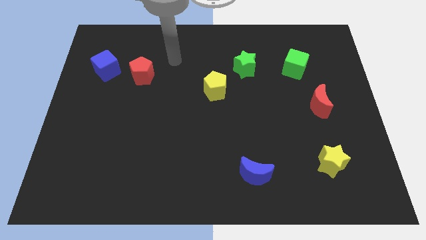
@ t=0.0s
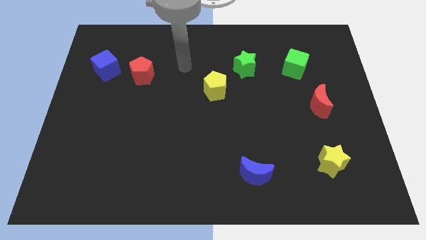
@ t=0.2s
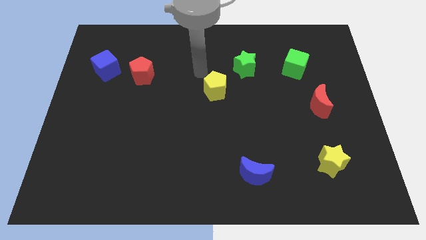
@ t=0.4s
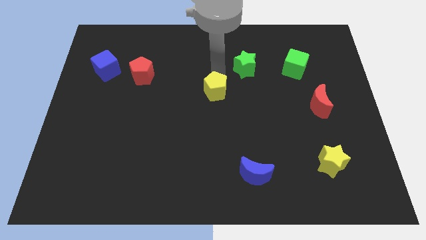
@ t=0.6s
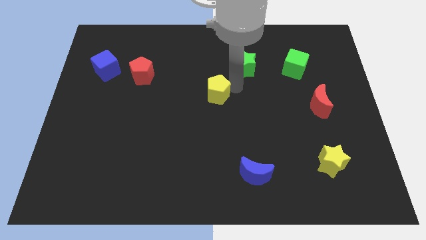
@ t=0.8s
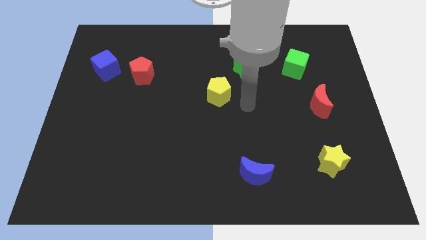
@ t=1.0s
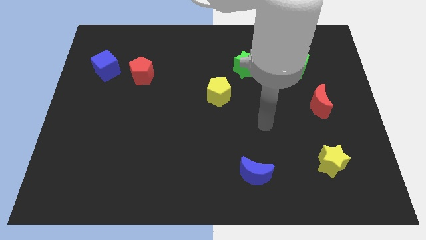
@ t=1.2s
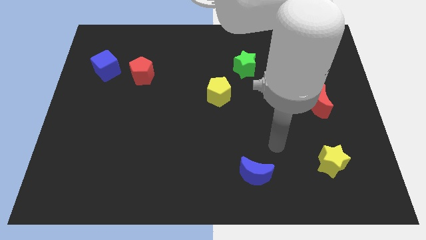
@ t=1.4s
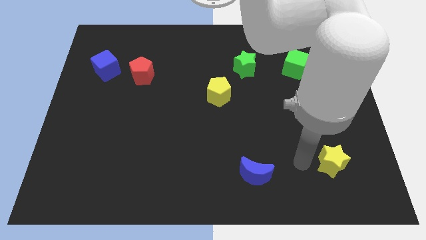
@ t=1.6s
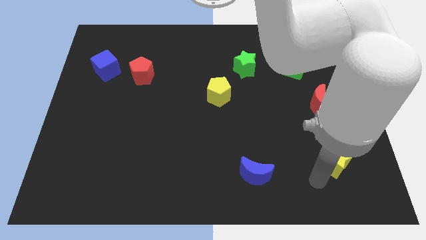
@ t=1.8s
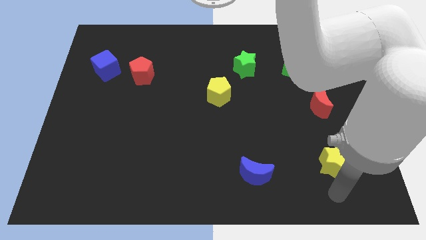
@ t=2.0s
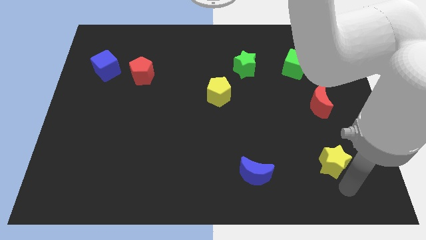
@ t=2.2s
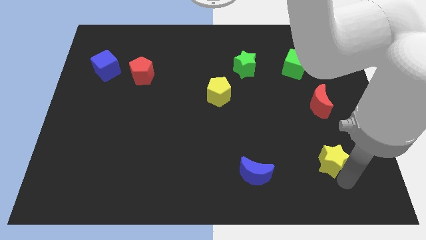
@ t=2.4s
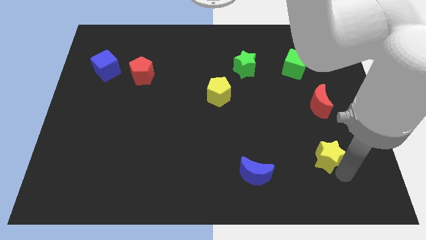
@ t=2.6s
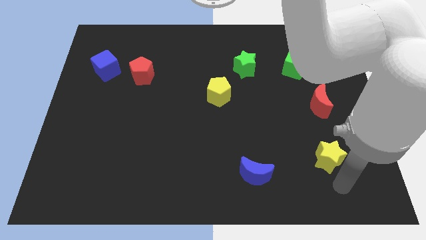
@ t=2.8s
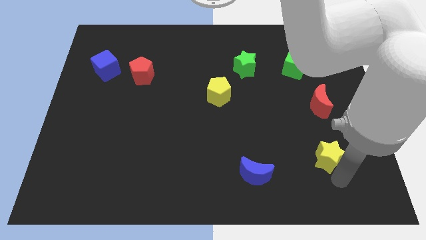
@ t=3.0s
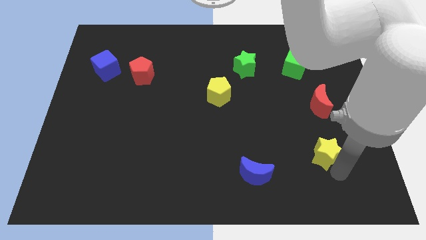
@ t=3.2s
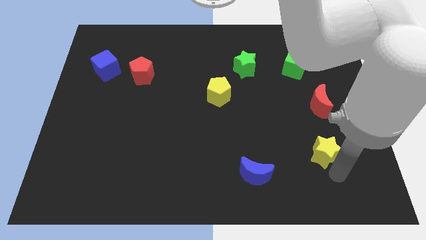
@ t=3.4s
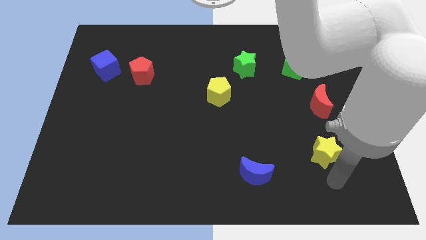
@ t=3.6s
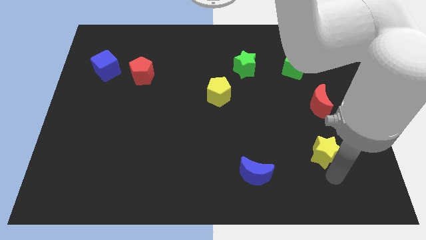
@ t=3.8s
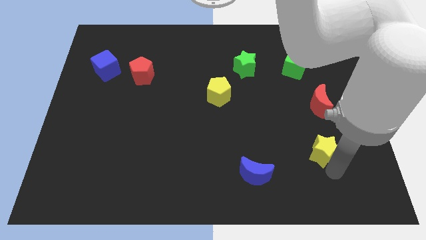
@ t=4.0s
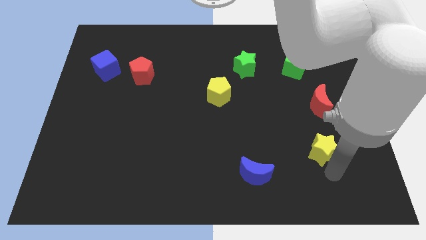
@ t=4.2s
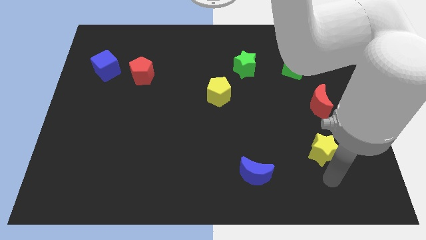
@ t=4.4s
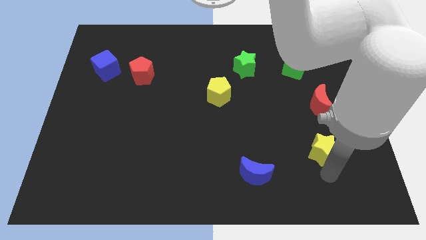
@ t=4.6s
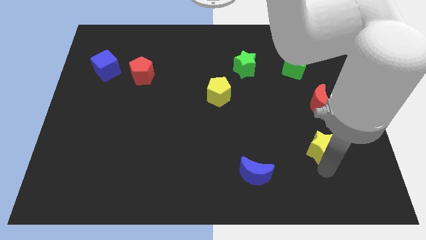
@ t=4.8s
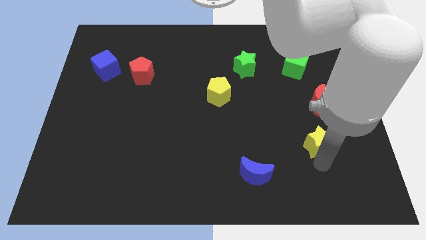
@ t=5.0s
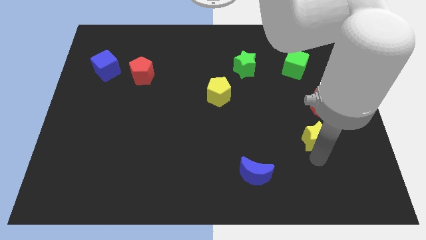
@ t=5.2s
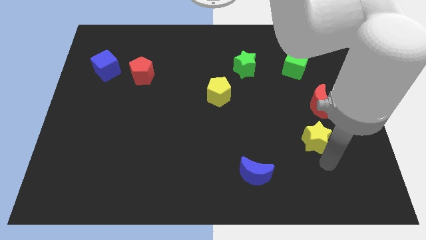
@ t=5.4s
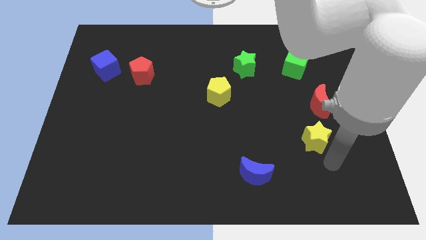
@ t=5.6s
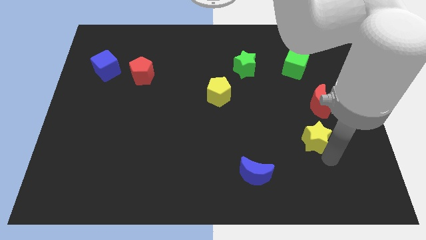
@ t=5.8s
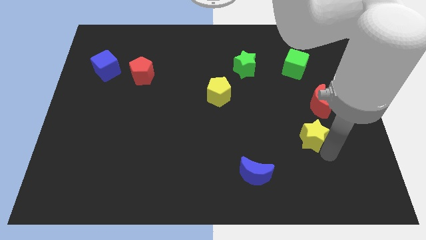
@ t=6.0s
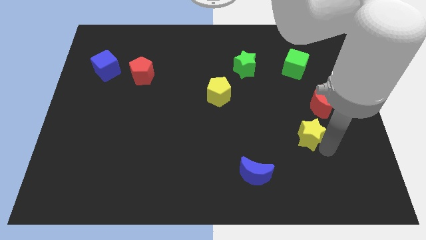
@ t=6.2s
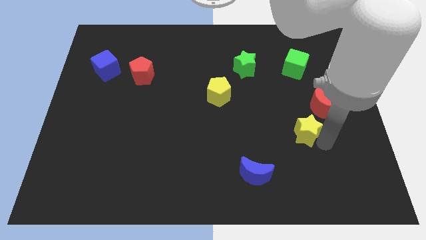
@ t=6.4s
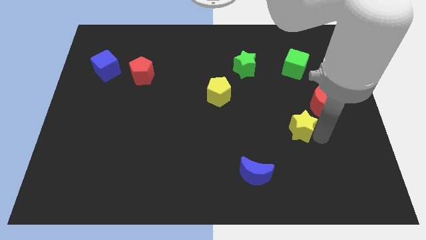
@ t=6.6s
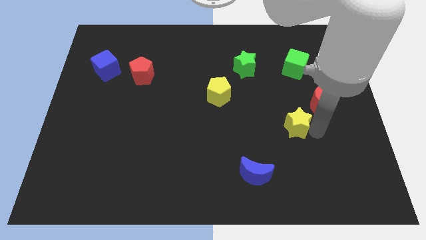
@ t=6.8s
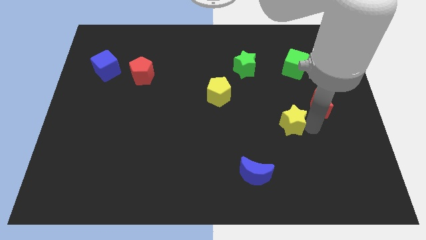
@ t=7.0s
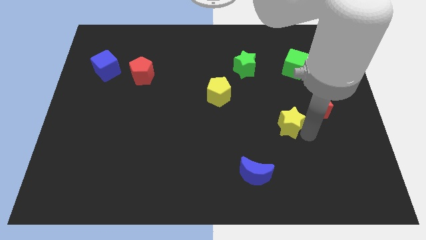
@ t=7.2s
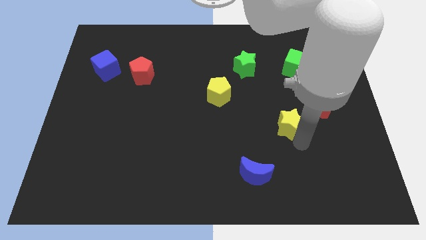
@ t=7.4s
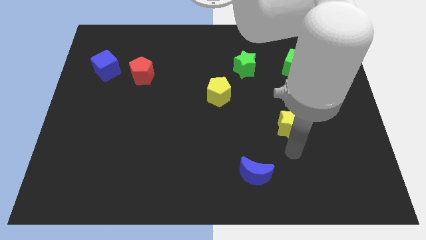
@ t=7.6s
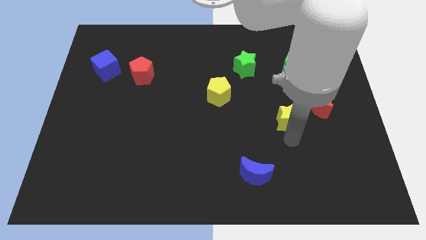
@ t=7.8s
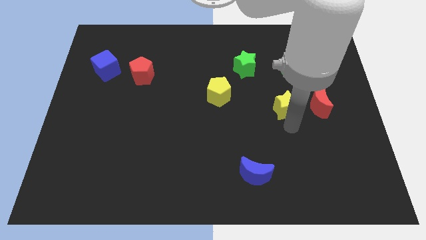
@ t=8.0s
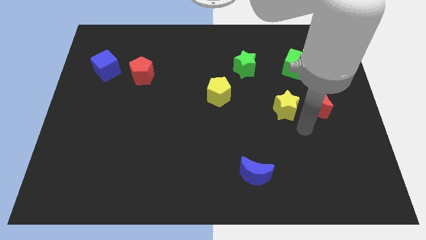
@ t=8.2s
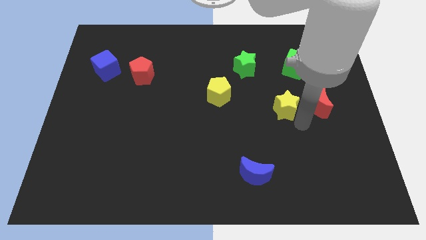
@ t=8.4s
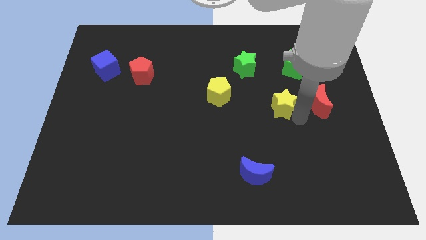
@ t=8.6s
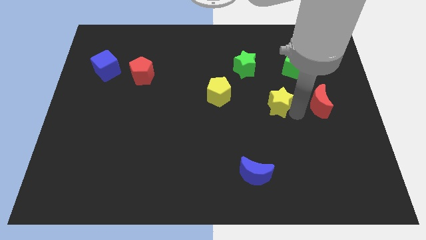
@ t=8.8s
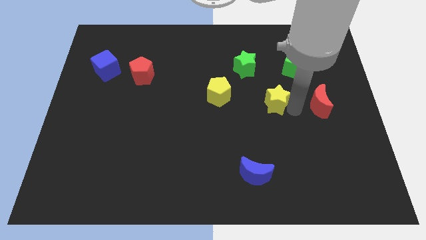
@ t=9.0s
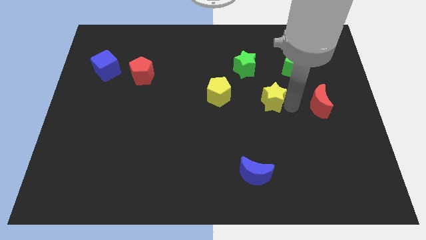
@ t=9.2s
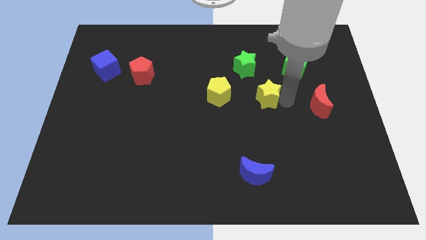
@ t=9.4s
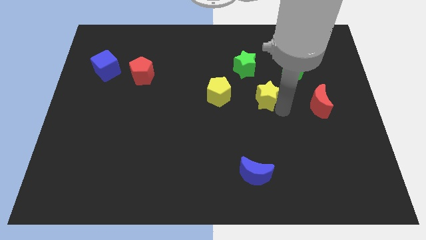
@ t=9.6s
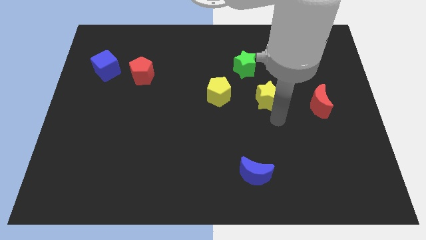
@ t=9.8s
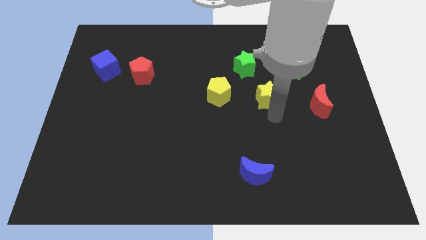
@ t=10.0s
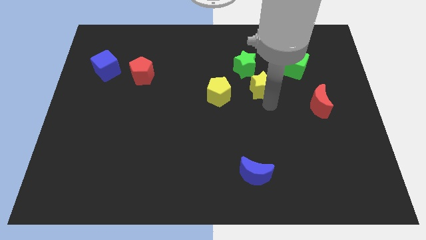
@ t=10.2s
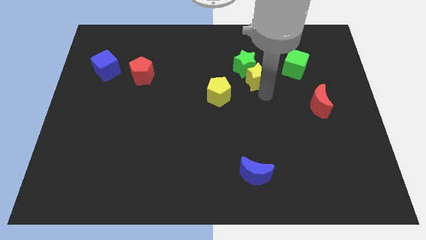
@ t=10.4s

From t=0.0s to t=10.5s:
put the yellow star close to the green star

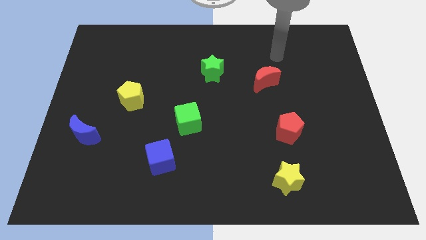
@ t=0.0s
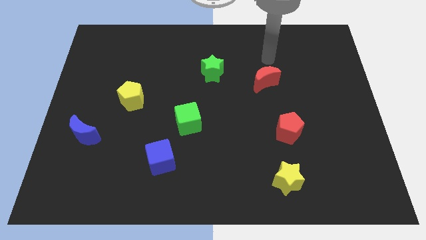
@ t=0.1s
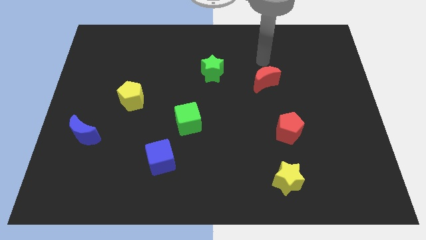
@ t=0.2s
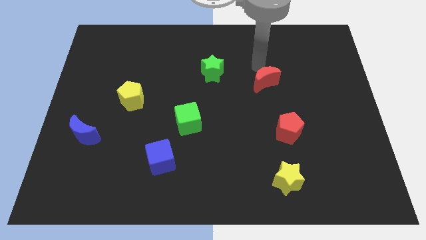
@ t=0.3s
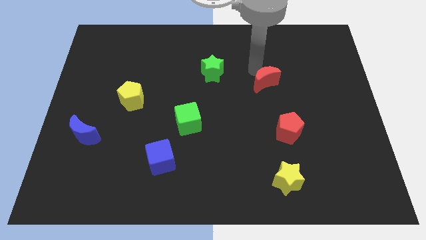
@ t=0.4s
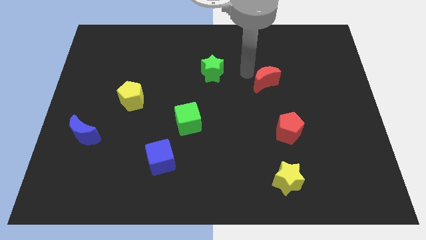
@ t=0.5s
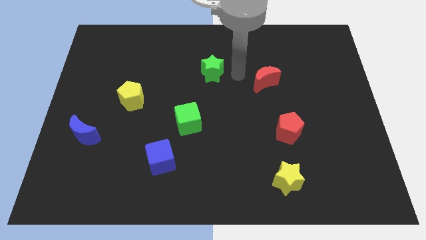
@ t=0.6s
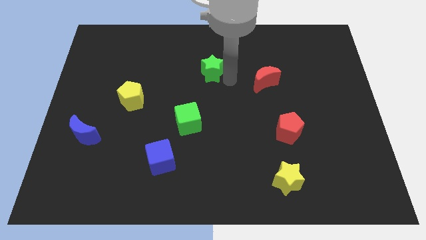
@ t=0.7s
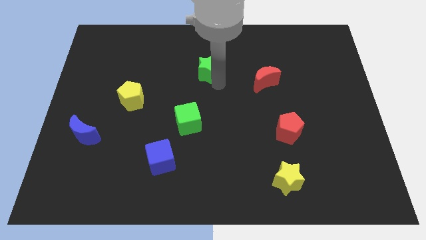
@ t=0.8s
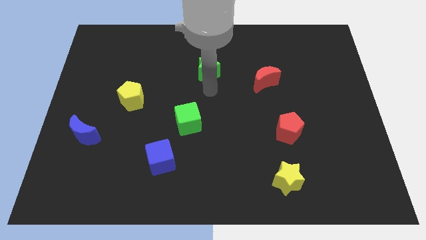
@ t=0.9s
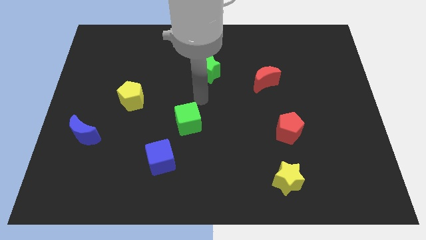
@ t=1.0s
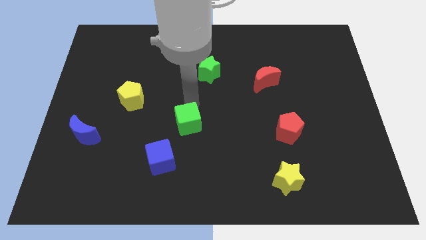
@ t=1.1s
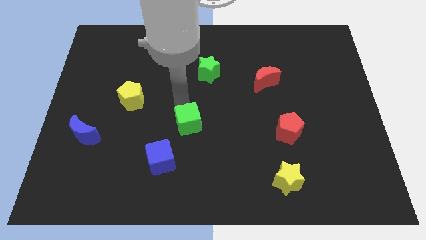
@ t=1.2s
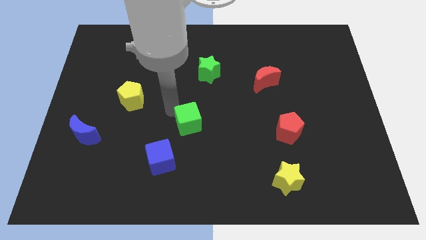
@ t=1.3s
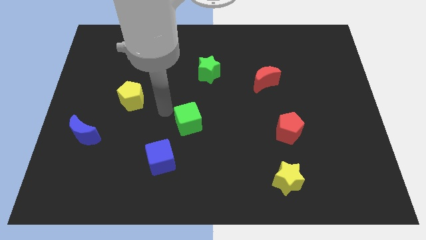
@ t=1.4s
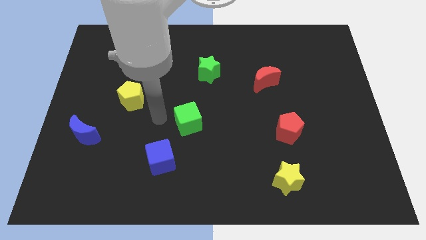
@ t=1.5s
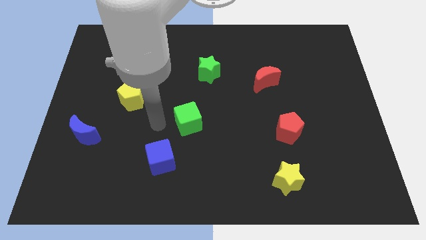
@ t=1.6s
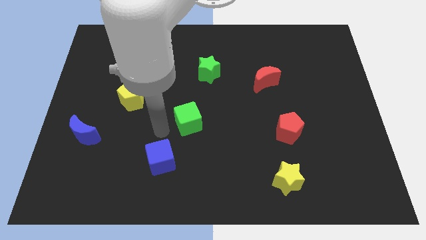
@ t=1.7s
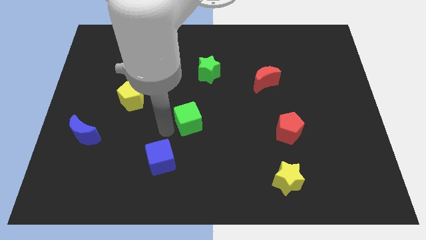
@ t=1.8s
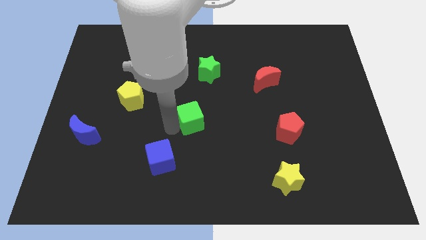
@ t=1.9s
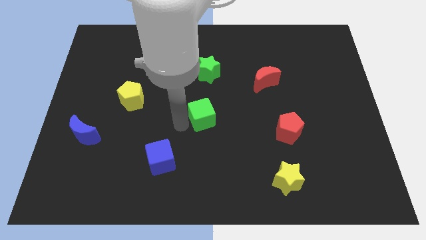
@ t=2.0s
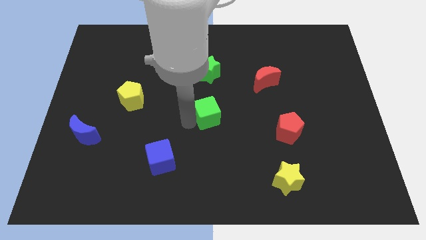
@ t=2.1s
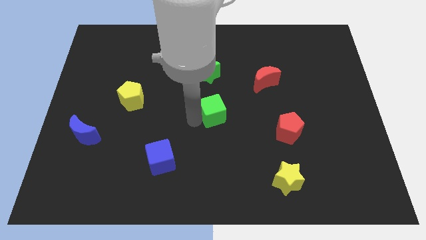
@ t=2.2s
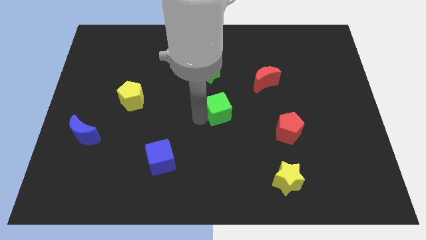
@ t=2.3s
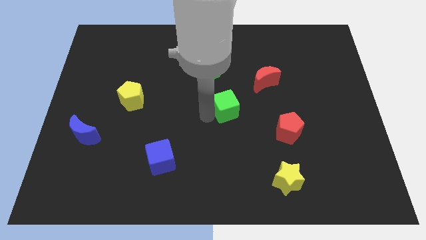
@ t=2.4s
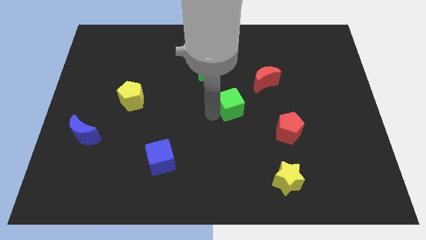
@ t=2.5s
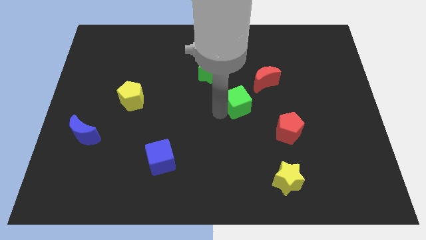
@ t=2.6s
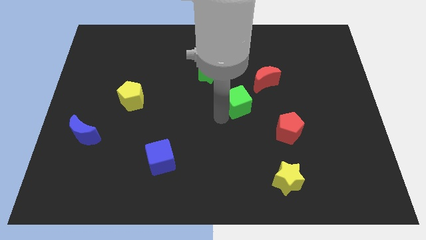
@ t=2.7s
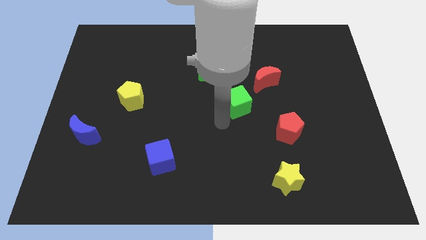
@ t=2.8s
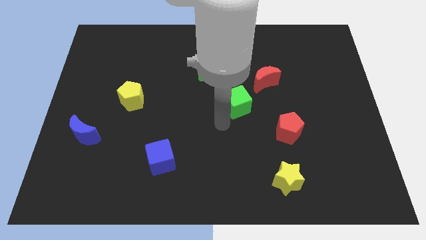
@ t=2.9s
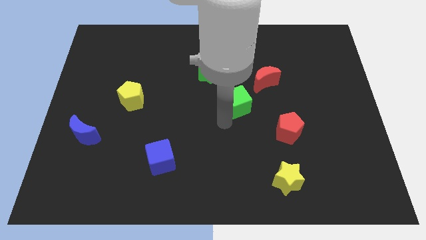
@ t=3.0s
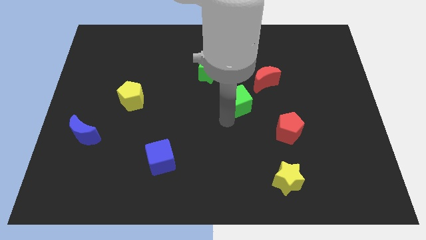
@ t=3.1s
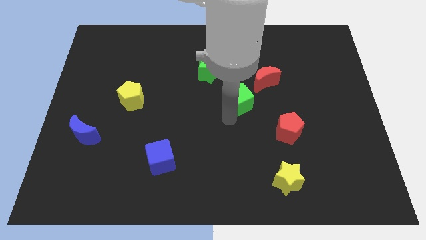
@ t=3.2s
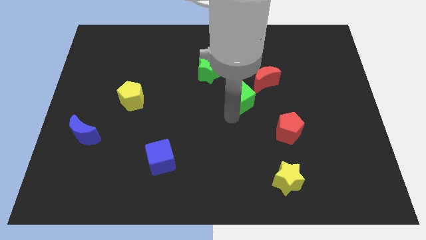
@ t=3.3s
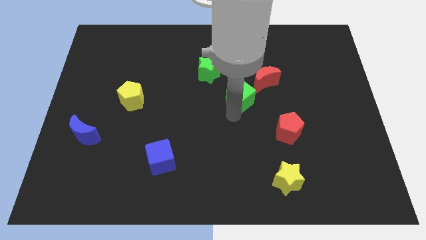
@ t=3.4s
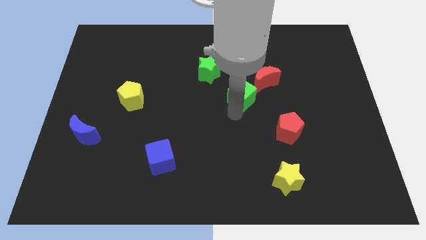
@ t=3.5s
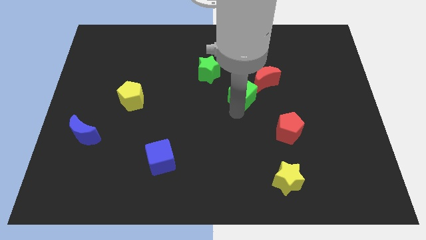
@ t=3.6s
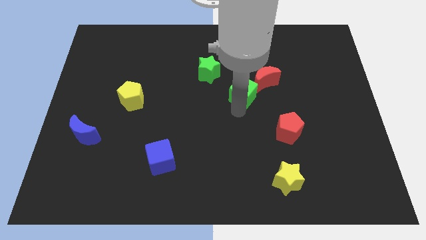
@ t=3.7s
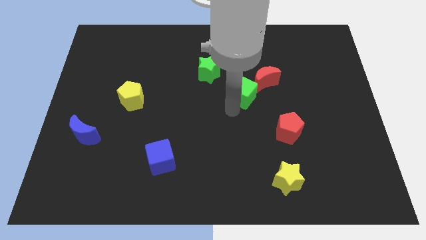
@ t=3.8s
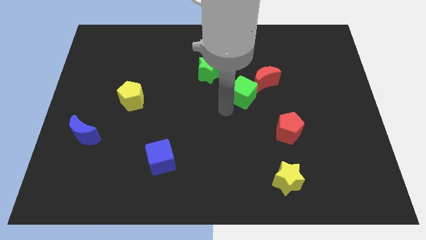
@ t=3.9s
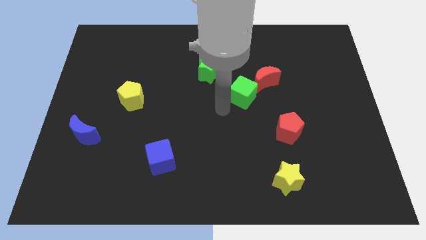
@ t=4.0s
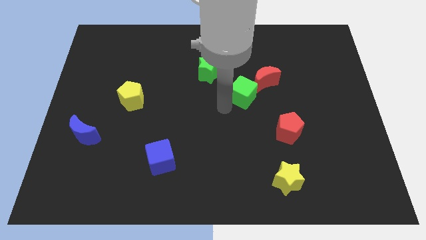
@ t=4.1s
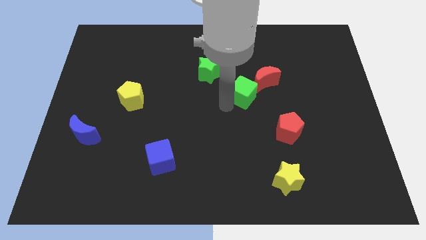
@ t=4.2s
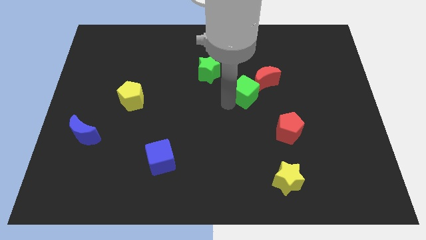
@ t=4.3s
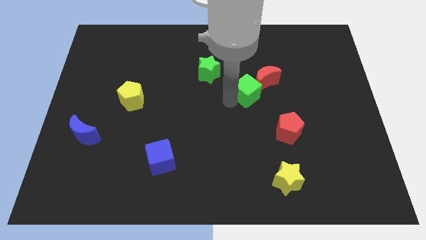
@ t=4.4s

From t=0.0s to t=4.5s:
move the green cube close to the red moon
